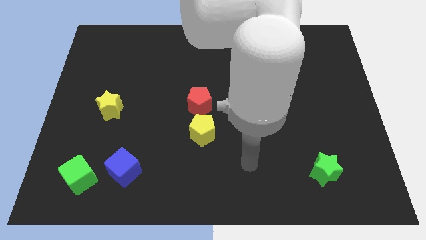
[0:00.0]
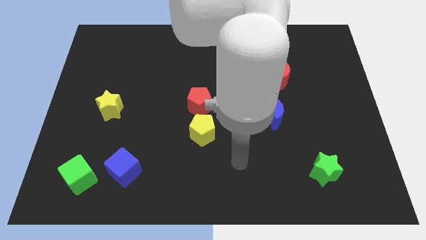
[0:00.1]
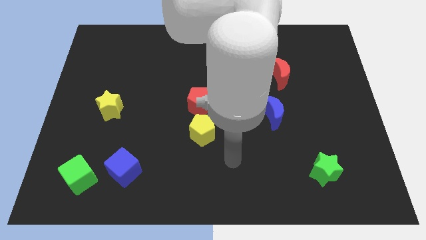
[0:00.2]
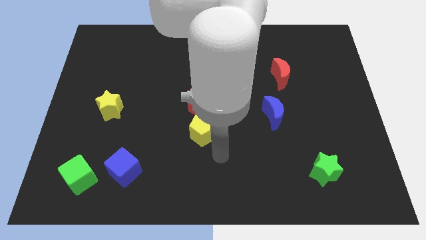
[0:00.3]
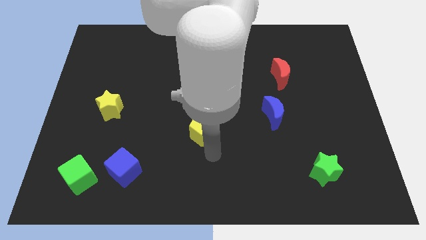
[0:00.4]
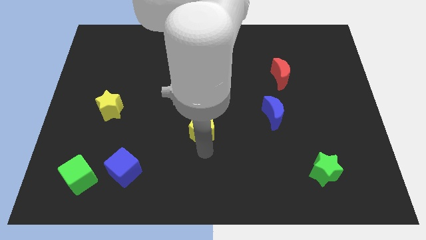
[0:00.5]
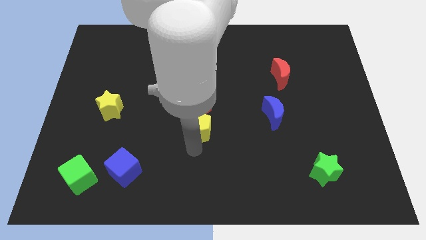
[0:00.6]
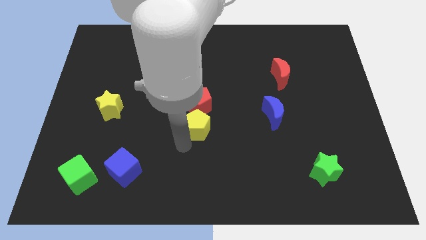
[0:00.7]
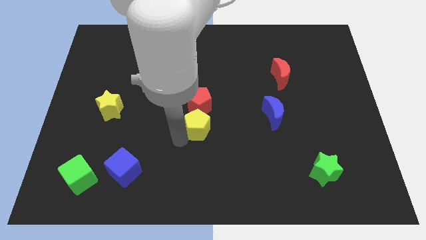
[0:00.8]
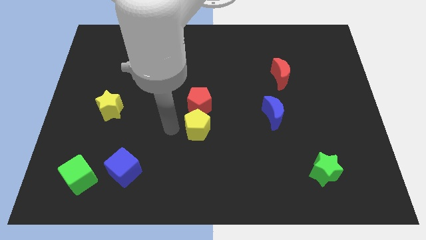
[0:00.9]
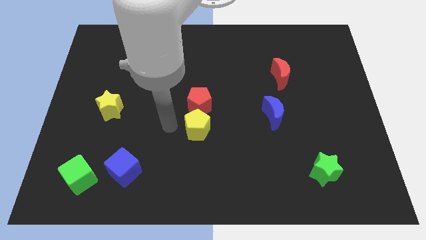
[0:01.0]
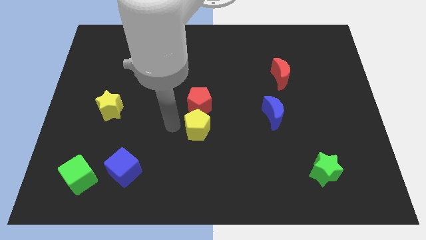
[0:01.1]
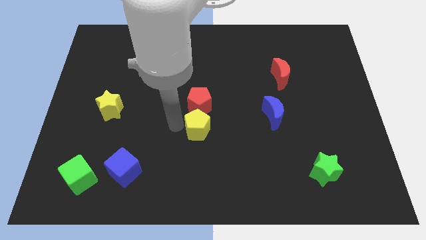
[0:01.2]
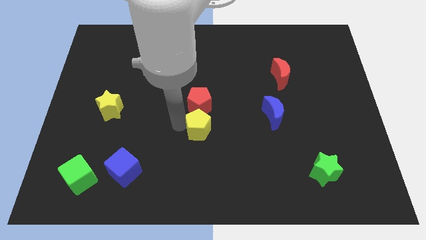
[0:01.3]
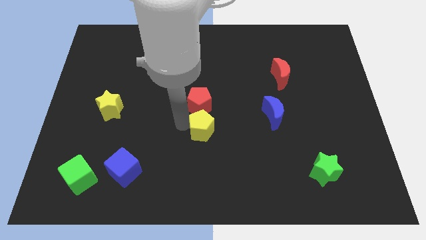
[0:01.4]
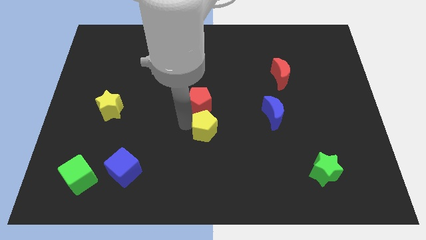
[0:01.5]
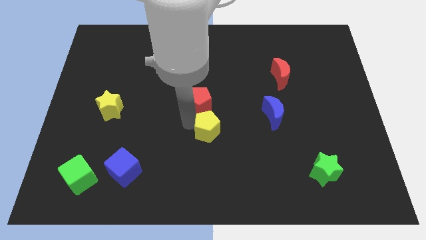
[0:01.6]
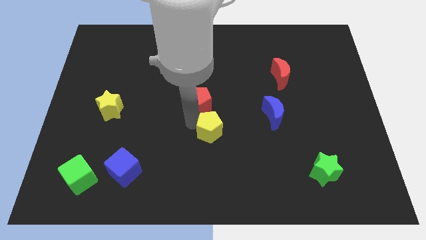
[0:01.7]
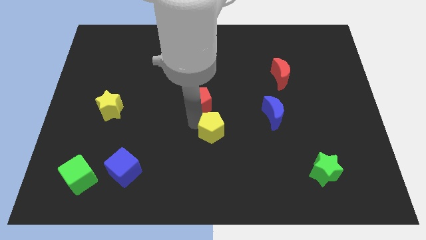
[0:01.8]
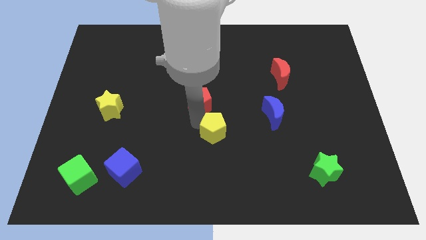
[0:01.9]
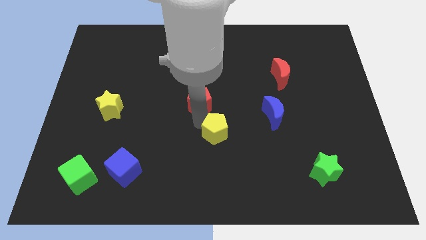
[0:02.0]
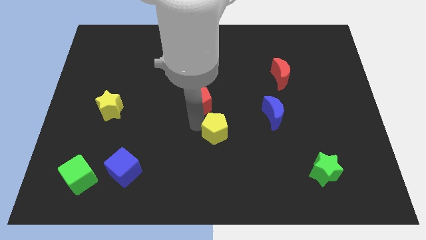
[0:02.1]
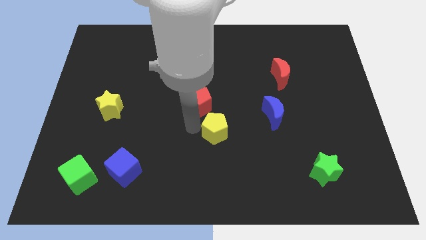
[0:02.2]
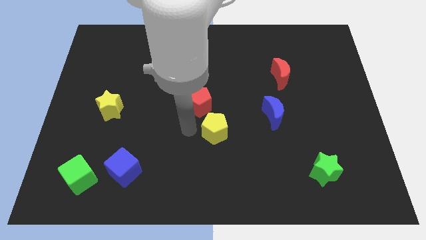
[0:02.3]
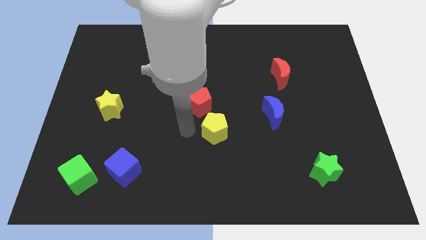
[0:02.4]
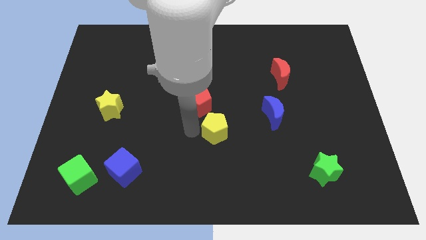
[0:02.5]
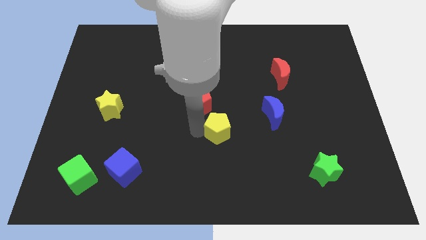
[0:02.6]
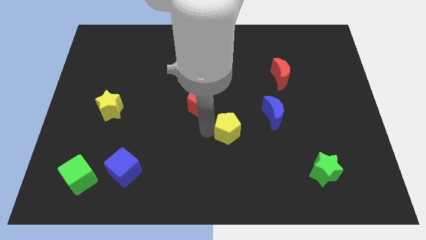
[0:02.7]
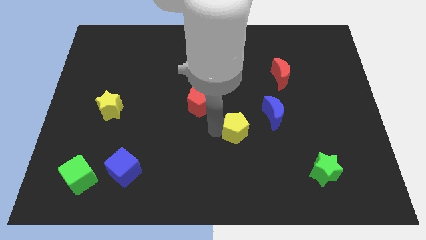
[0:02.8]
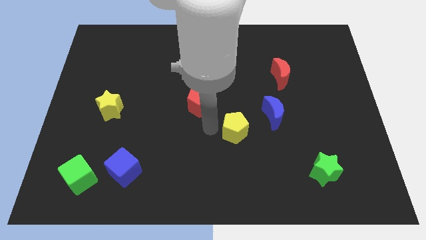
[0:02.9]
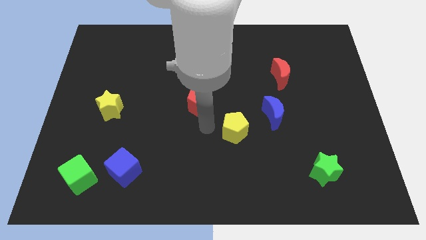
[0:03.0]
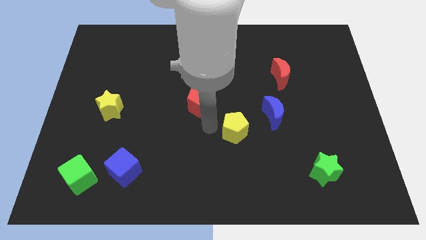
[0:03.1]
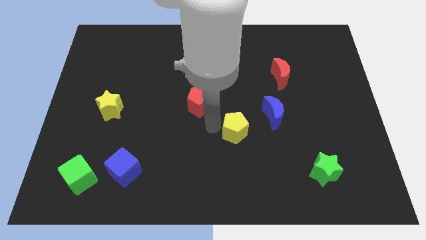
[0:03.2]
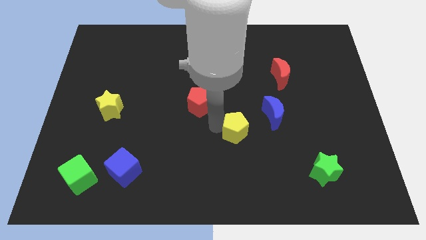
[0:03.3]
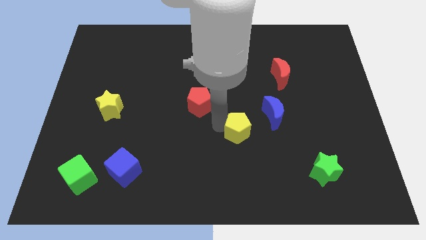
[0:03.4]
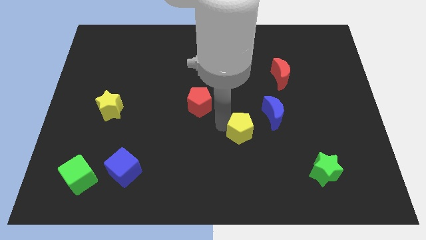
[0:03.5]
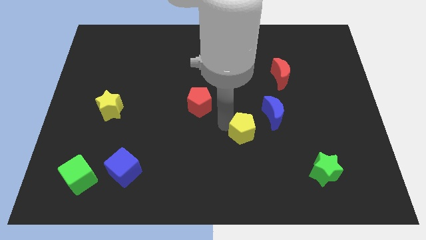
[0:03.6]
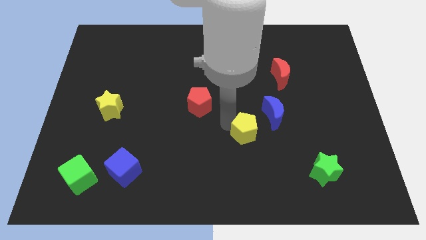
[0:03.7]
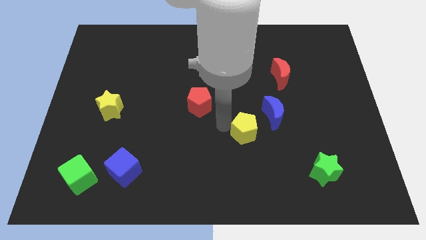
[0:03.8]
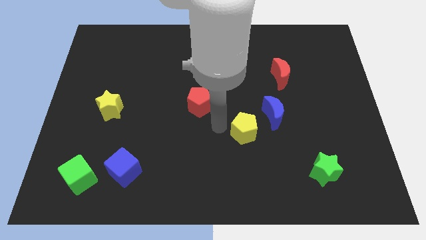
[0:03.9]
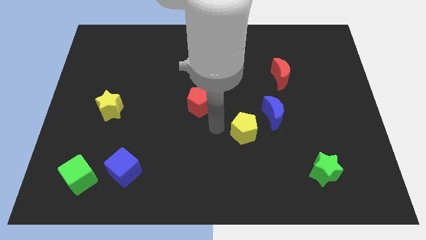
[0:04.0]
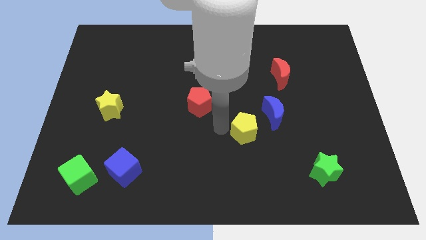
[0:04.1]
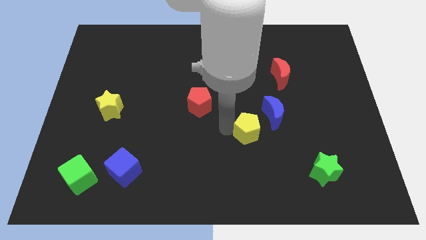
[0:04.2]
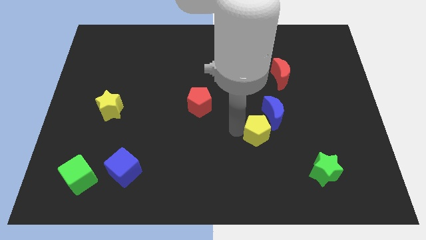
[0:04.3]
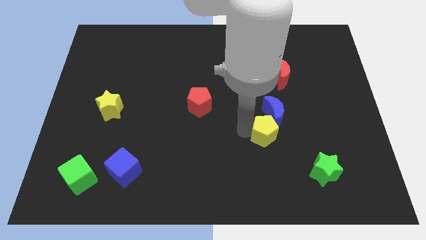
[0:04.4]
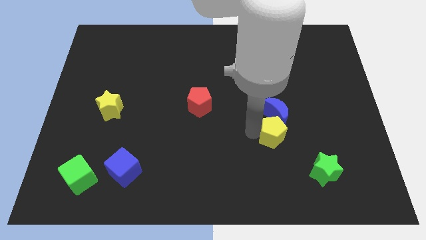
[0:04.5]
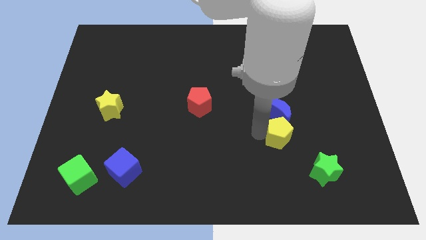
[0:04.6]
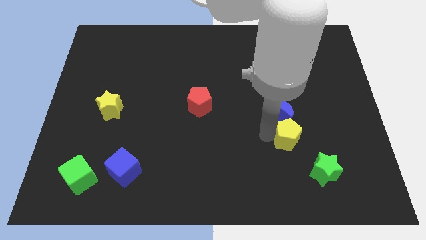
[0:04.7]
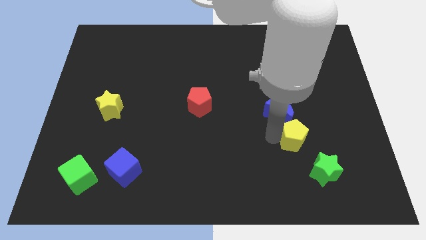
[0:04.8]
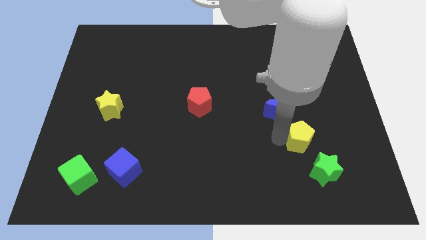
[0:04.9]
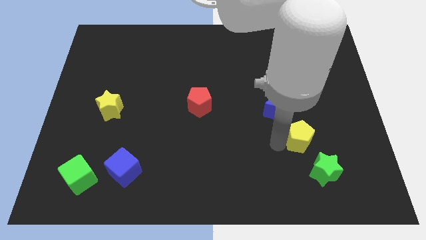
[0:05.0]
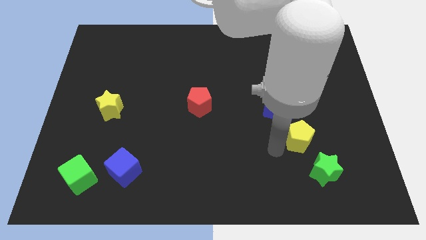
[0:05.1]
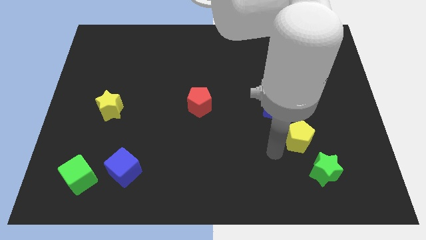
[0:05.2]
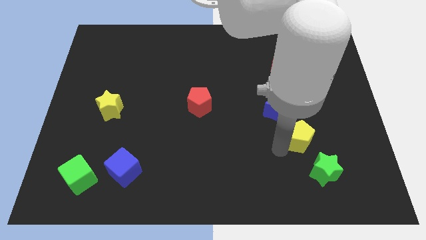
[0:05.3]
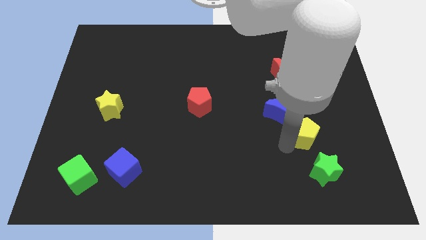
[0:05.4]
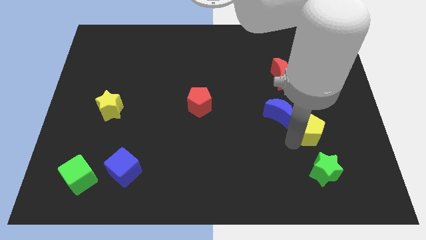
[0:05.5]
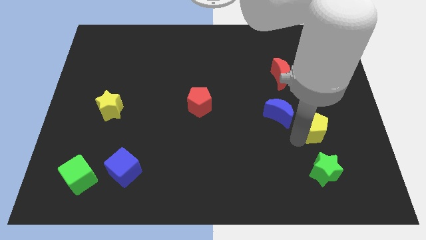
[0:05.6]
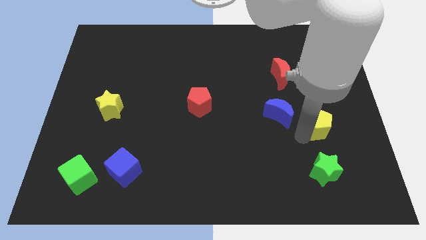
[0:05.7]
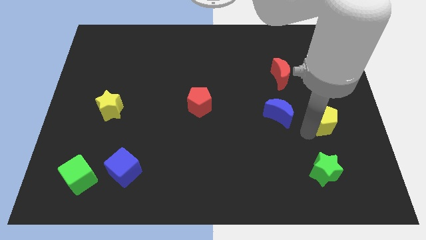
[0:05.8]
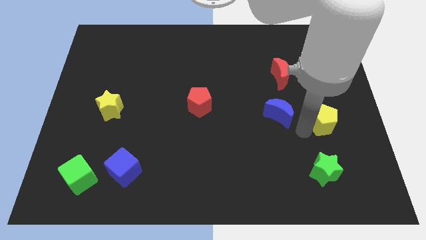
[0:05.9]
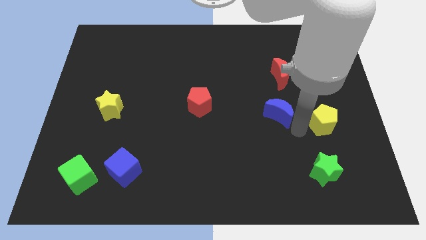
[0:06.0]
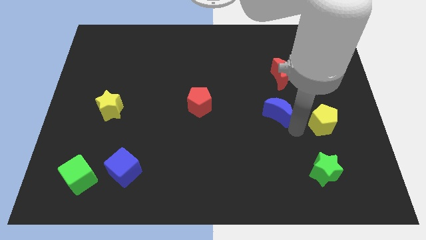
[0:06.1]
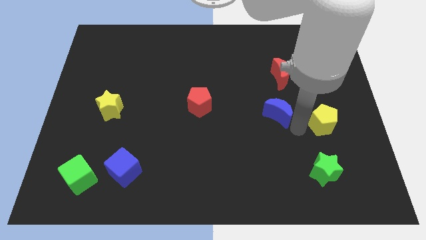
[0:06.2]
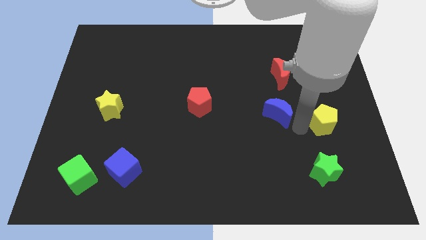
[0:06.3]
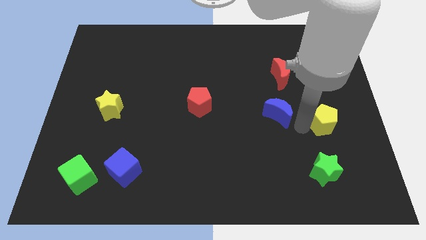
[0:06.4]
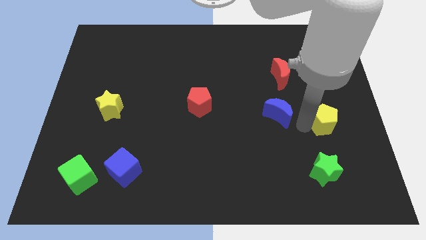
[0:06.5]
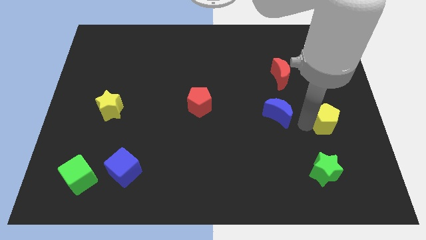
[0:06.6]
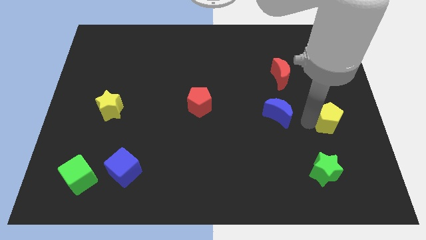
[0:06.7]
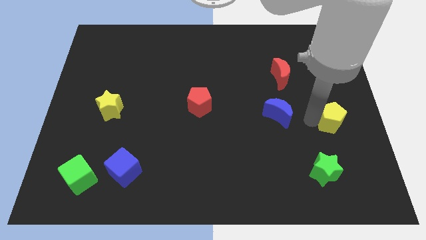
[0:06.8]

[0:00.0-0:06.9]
push the yellow pentagon to the right side
